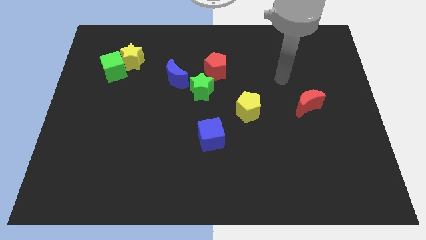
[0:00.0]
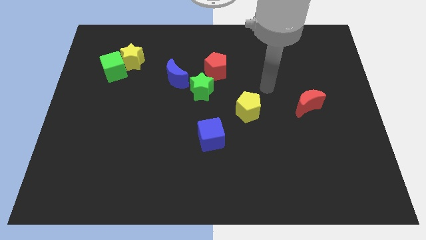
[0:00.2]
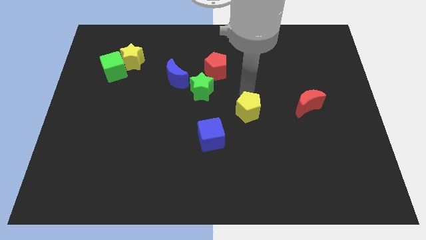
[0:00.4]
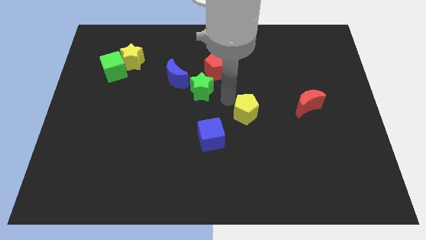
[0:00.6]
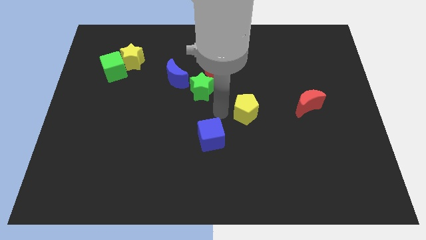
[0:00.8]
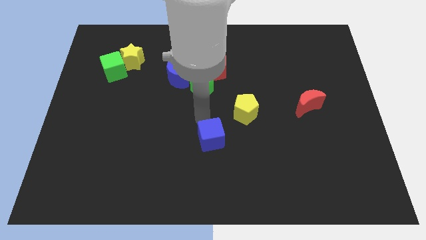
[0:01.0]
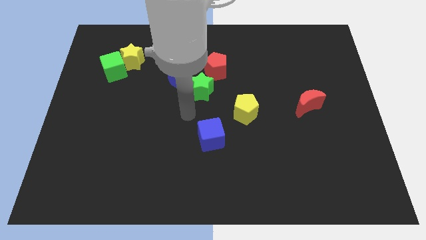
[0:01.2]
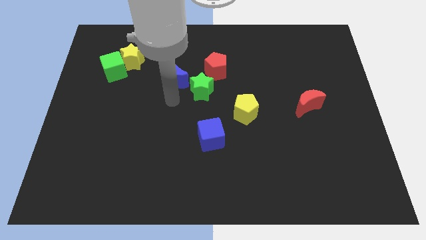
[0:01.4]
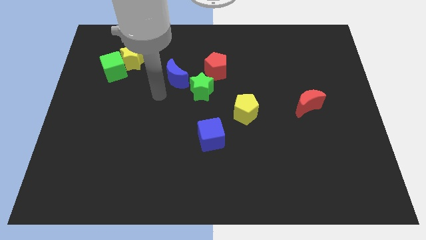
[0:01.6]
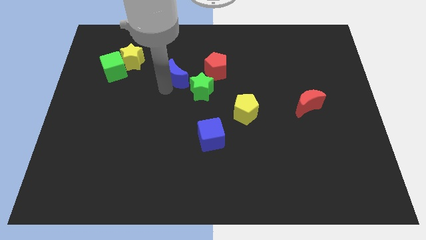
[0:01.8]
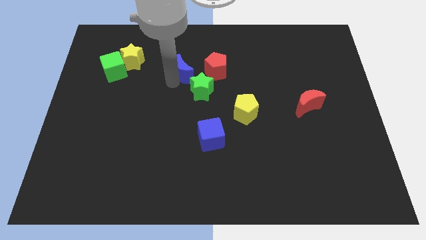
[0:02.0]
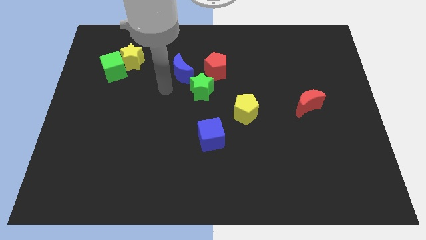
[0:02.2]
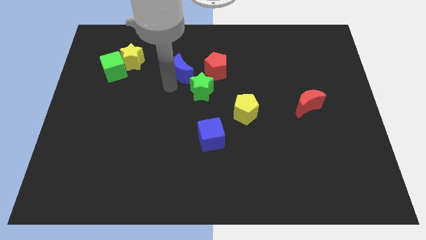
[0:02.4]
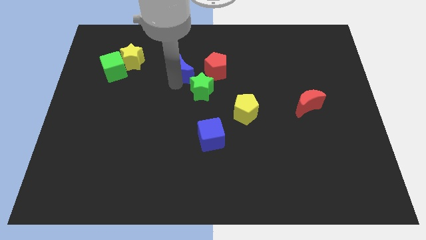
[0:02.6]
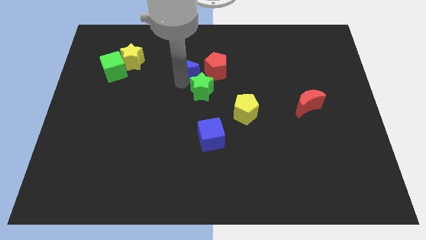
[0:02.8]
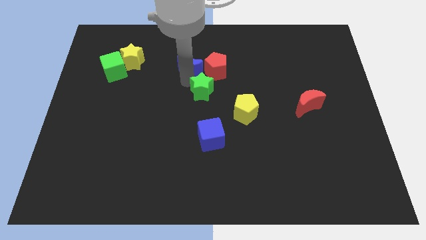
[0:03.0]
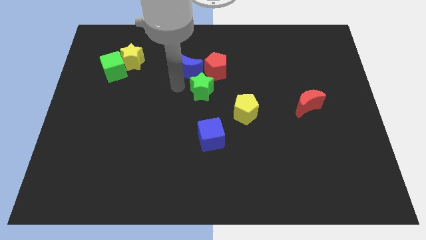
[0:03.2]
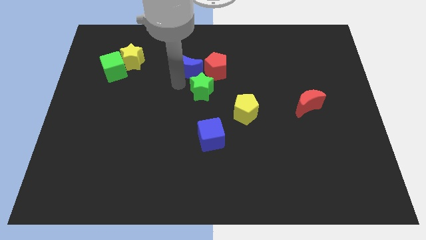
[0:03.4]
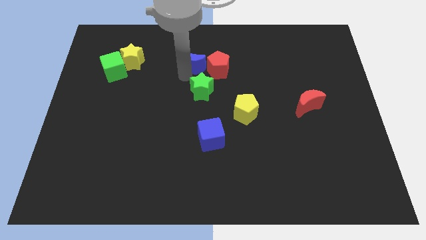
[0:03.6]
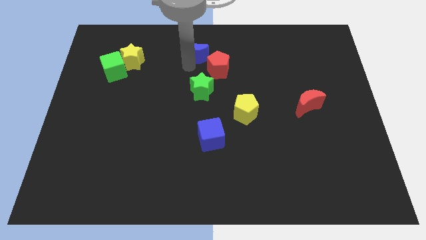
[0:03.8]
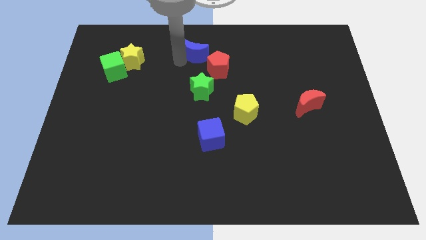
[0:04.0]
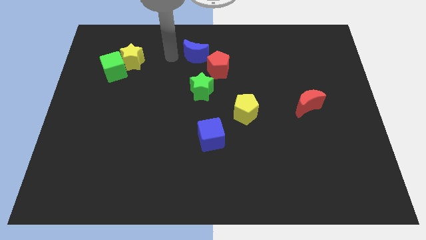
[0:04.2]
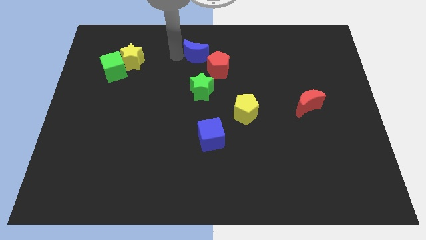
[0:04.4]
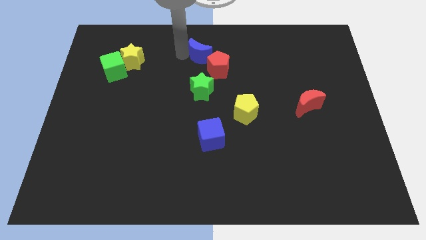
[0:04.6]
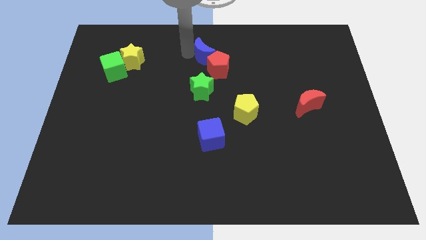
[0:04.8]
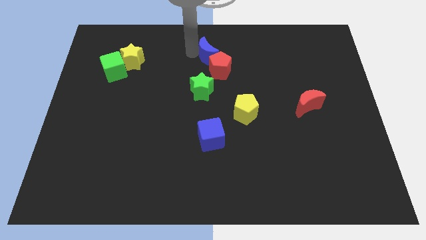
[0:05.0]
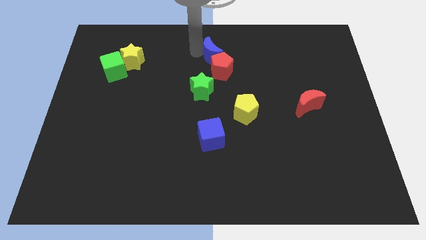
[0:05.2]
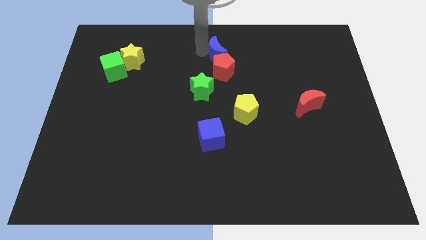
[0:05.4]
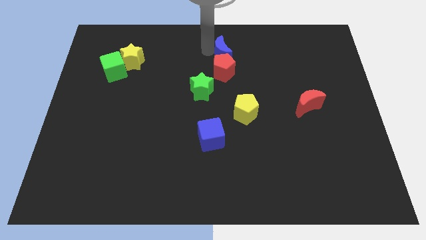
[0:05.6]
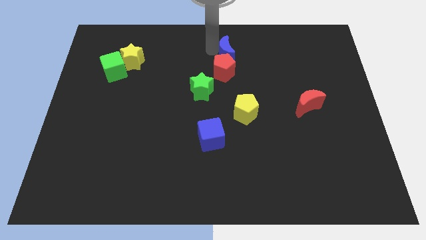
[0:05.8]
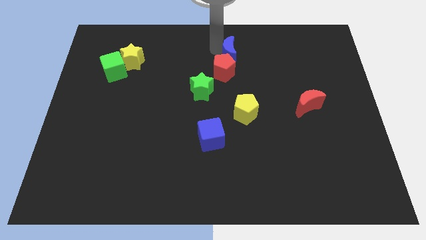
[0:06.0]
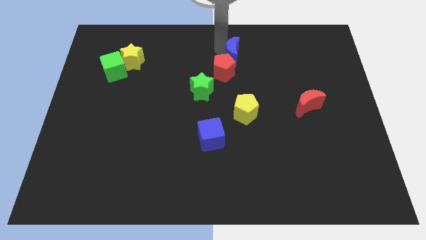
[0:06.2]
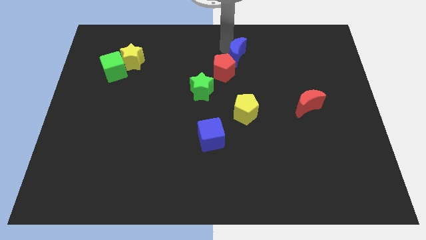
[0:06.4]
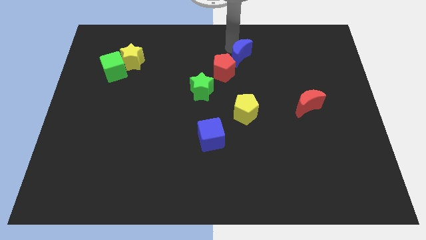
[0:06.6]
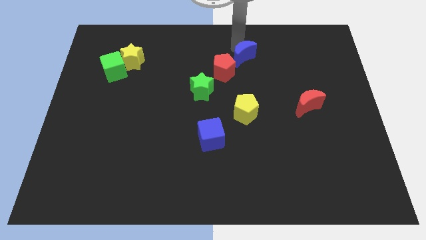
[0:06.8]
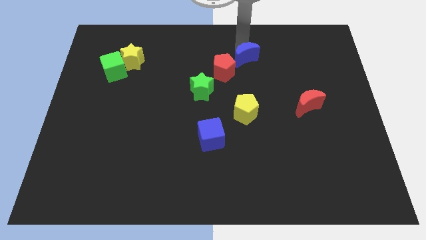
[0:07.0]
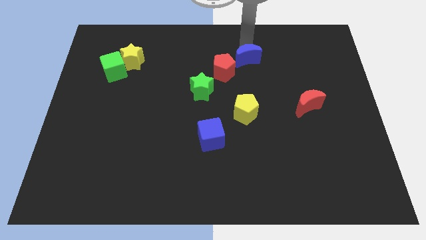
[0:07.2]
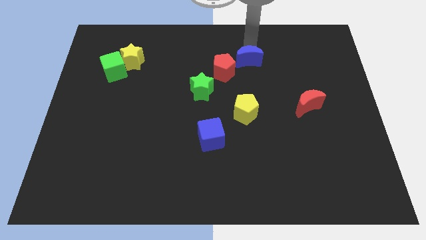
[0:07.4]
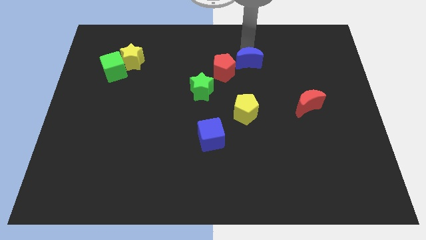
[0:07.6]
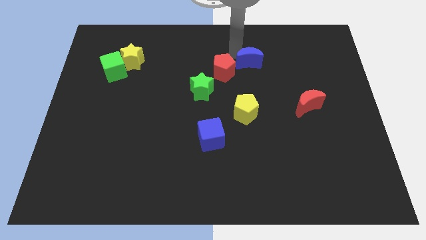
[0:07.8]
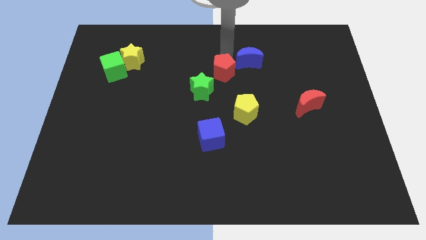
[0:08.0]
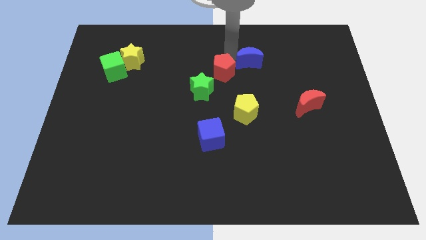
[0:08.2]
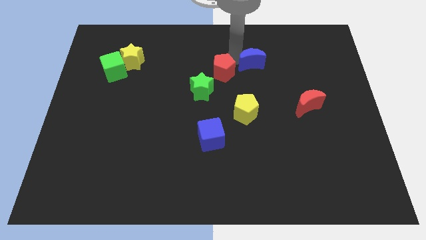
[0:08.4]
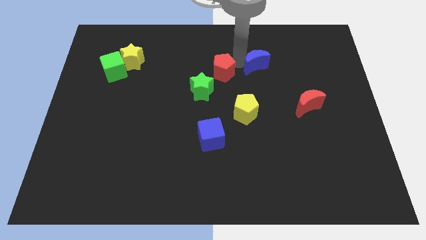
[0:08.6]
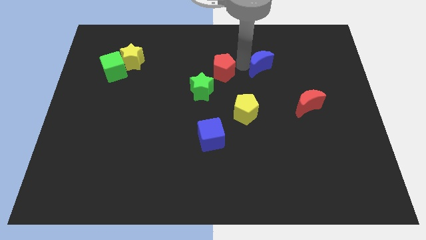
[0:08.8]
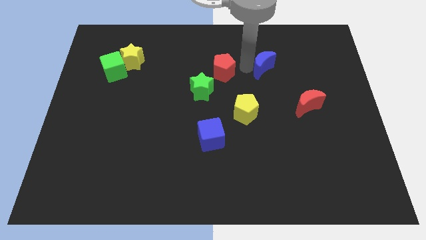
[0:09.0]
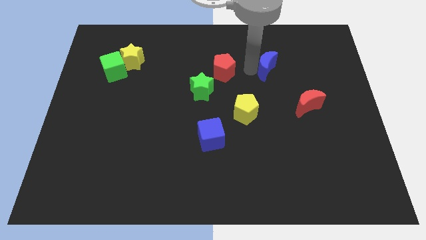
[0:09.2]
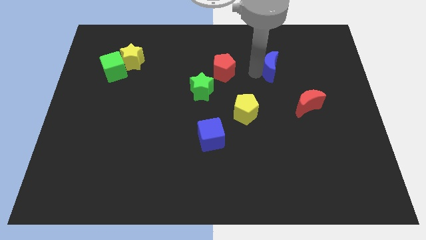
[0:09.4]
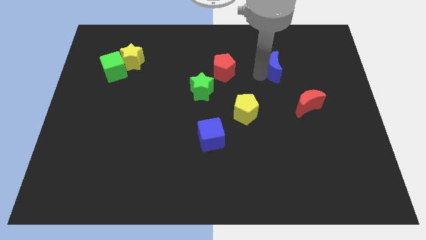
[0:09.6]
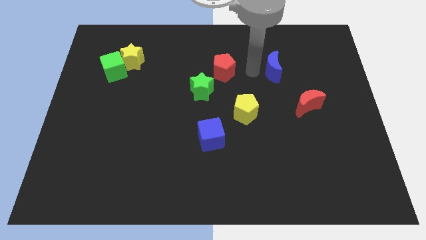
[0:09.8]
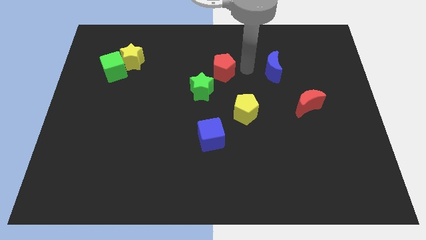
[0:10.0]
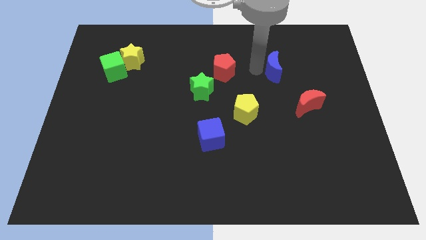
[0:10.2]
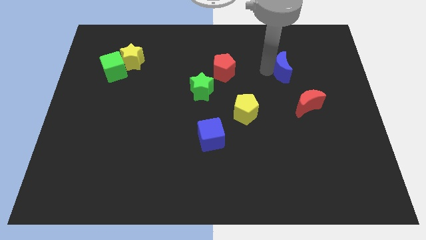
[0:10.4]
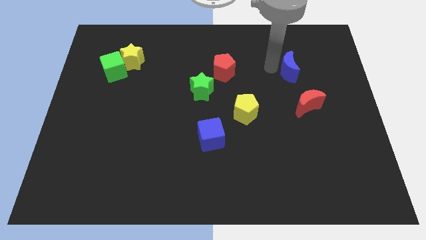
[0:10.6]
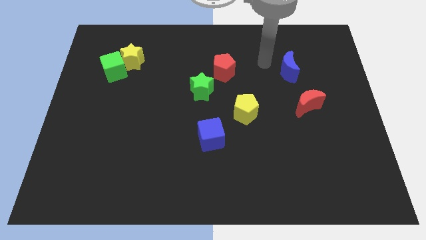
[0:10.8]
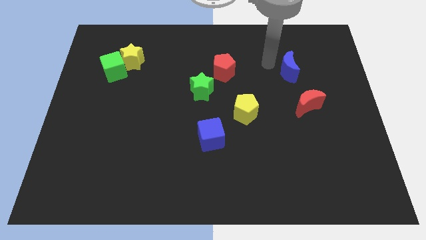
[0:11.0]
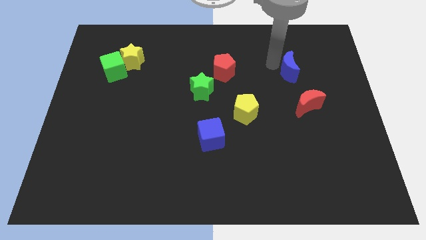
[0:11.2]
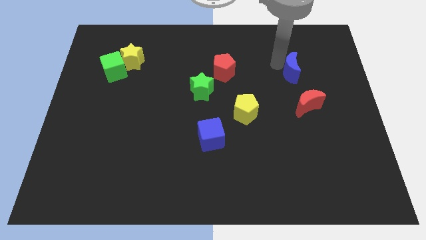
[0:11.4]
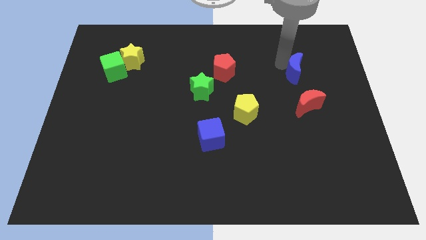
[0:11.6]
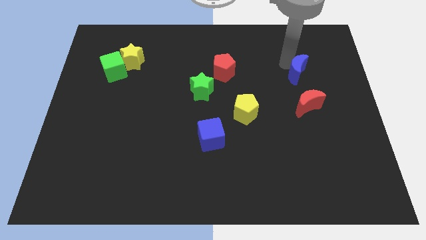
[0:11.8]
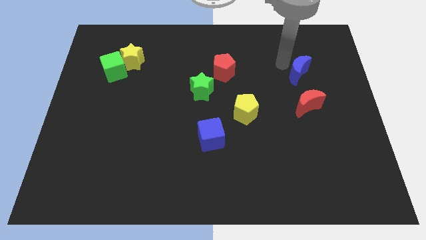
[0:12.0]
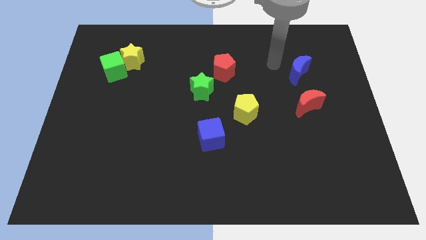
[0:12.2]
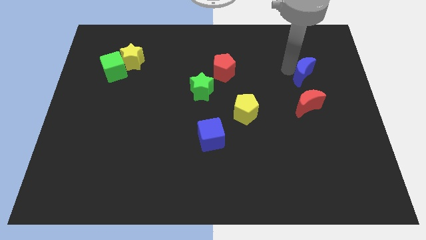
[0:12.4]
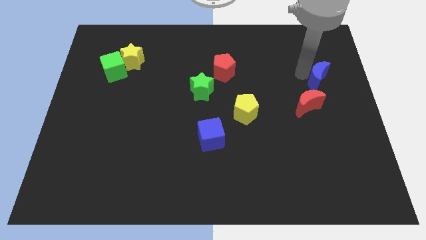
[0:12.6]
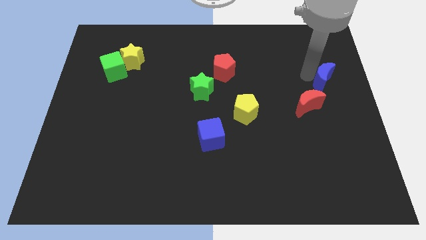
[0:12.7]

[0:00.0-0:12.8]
slide the blue moon to the center right
